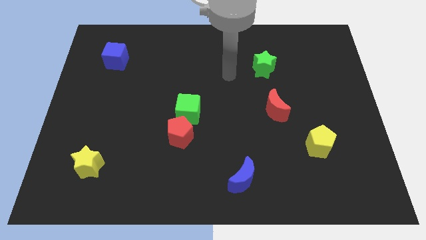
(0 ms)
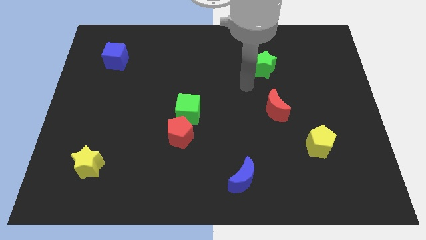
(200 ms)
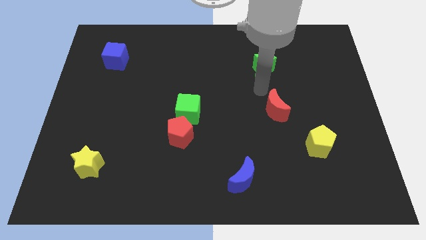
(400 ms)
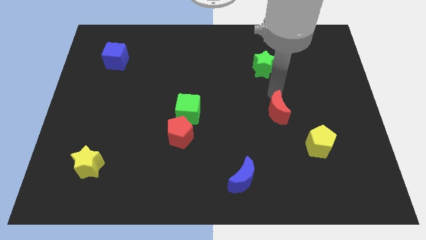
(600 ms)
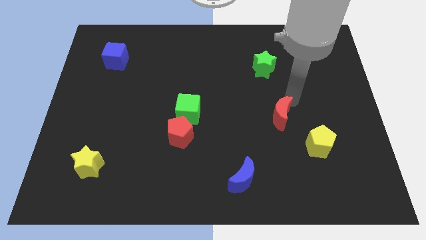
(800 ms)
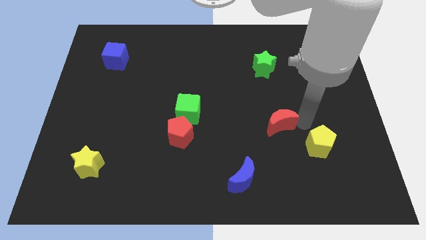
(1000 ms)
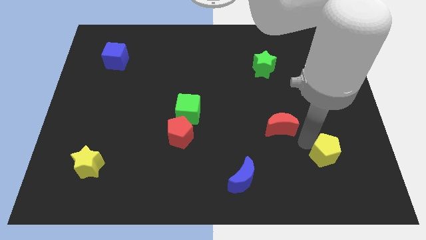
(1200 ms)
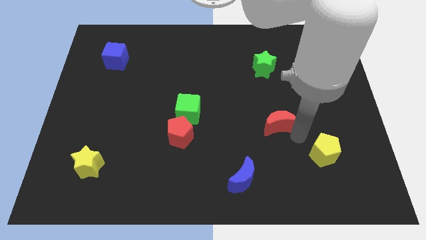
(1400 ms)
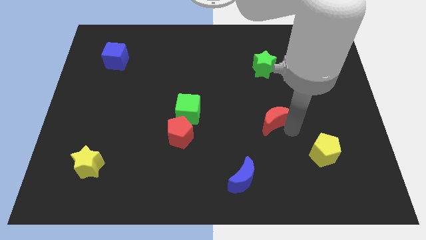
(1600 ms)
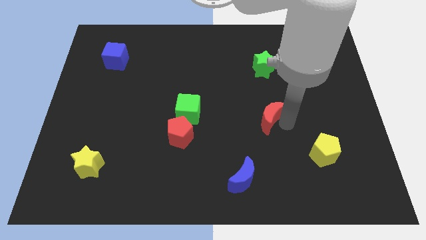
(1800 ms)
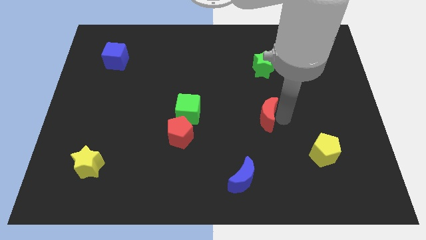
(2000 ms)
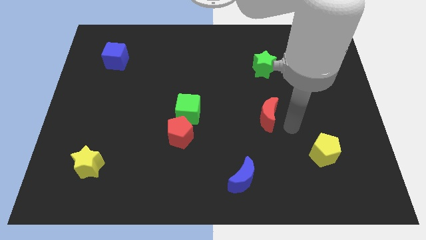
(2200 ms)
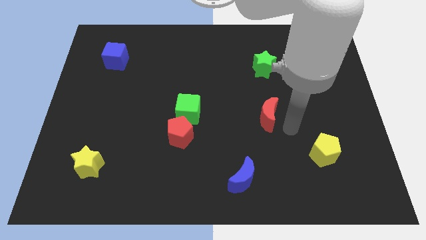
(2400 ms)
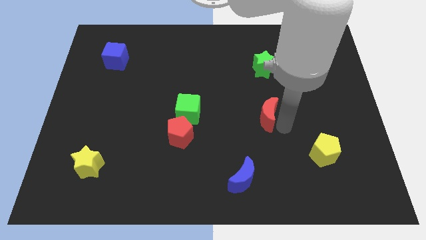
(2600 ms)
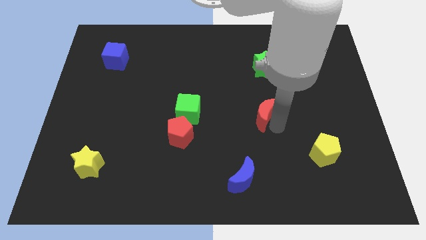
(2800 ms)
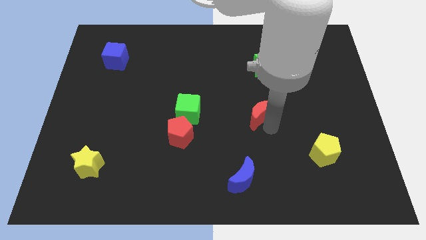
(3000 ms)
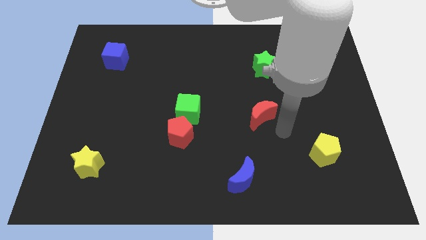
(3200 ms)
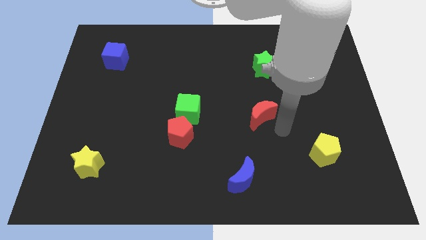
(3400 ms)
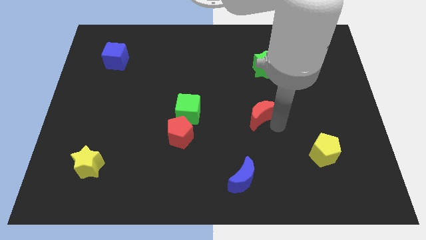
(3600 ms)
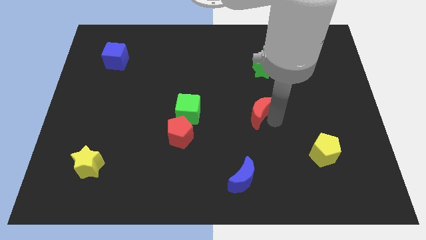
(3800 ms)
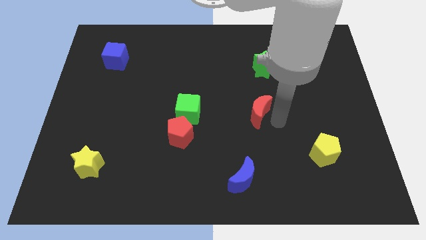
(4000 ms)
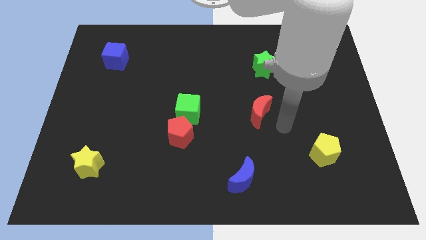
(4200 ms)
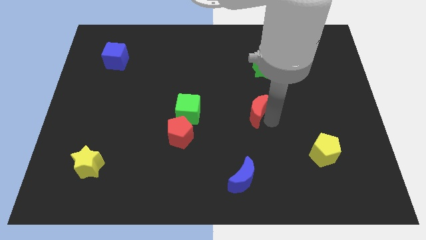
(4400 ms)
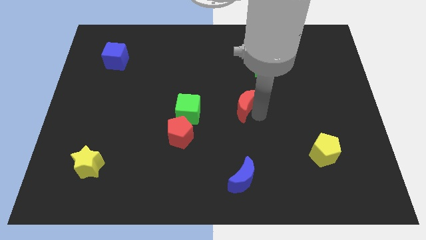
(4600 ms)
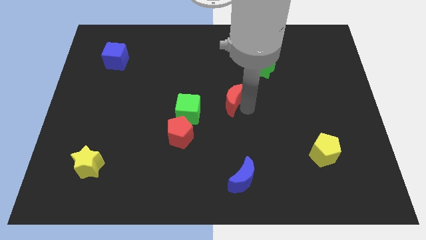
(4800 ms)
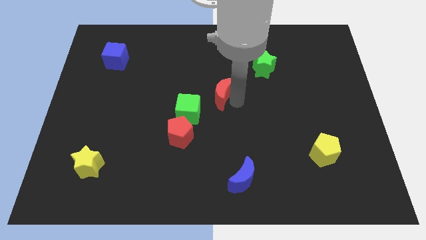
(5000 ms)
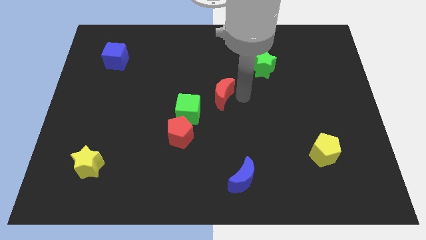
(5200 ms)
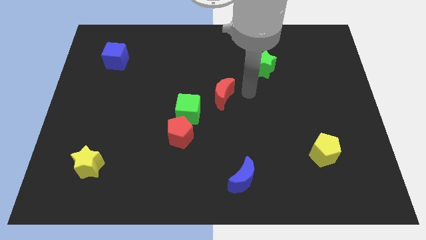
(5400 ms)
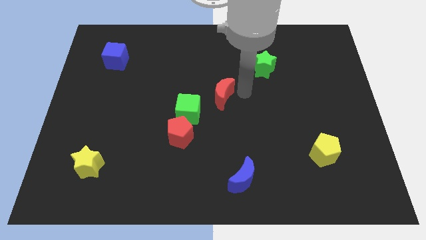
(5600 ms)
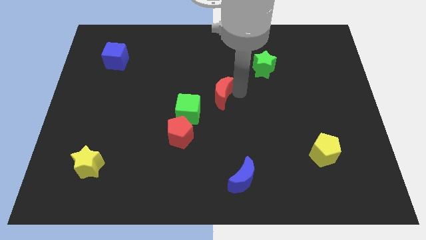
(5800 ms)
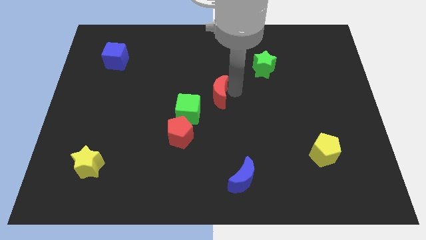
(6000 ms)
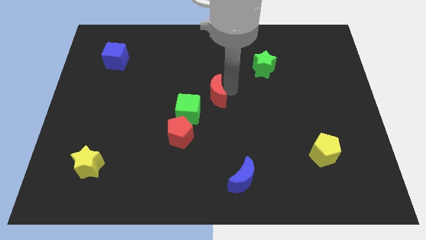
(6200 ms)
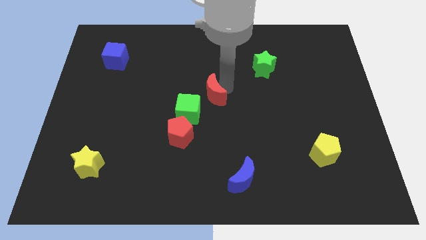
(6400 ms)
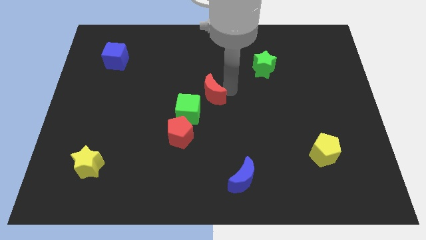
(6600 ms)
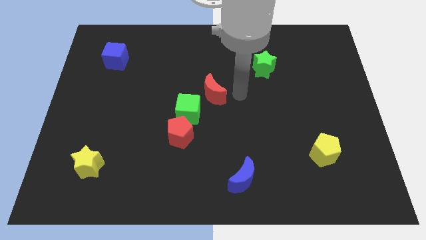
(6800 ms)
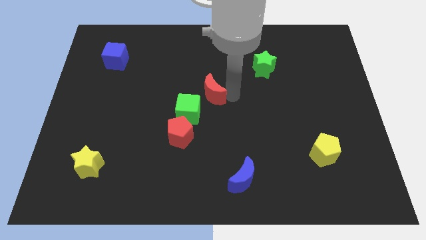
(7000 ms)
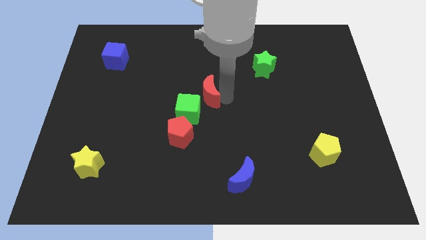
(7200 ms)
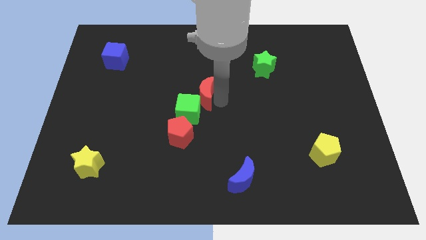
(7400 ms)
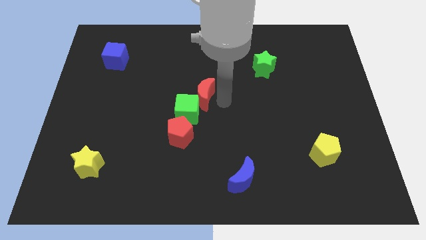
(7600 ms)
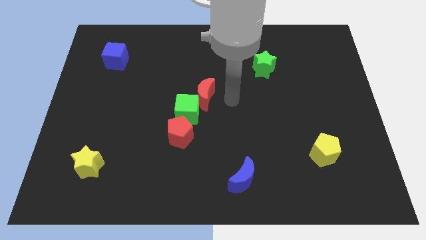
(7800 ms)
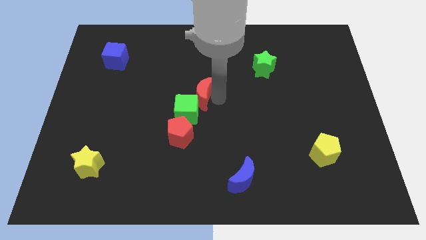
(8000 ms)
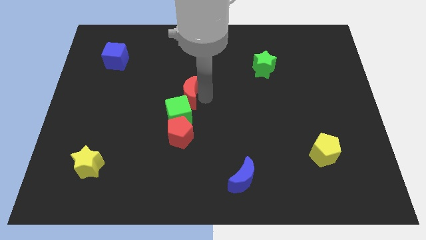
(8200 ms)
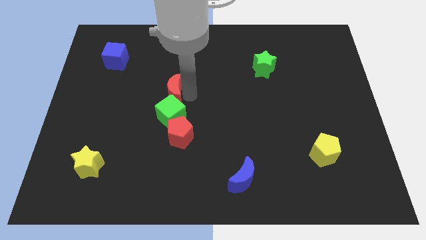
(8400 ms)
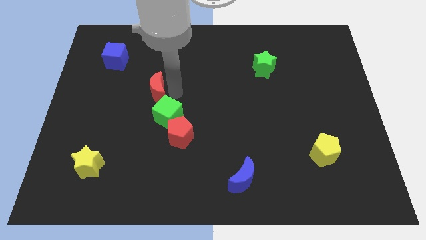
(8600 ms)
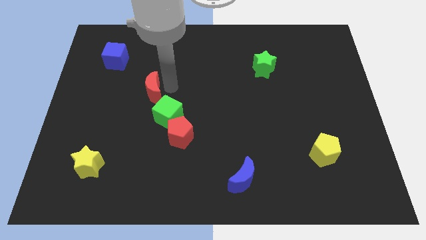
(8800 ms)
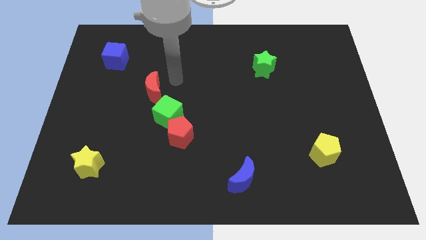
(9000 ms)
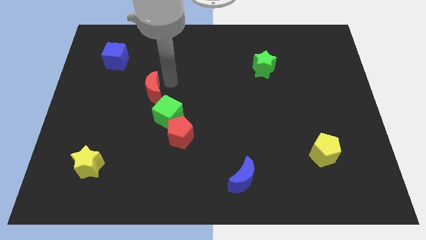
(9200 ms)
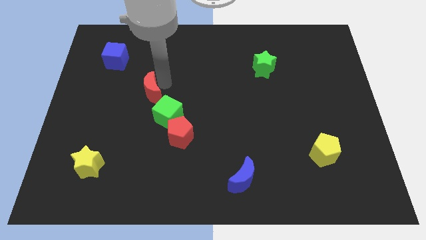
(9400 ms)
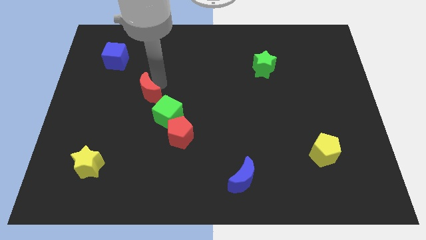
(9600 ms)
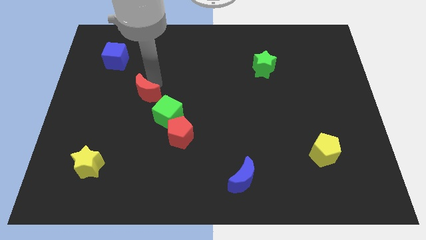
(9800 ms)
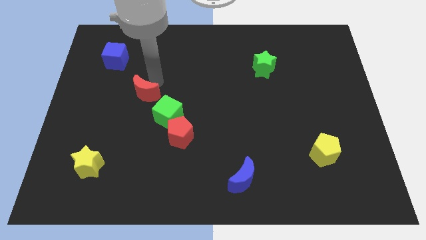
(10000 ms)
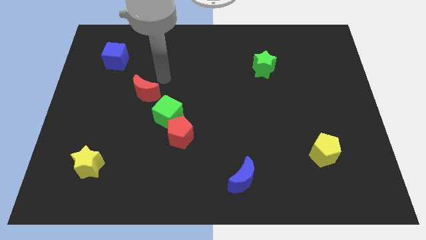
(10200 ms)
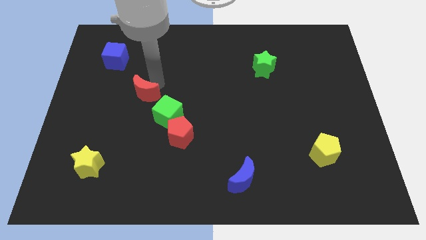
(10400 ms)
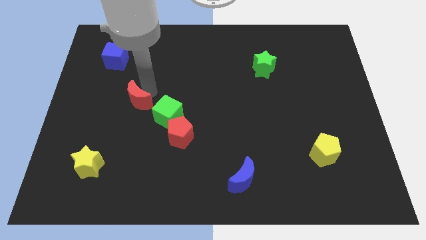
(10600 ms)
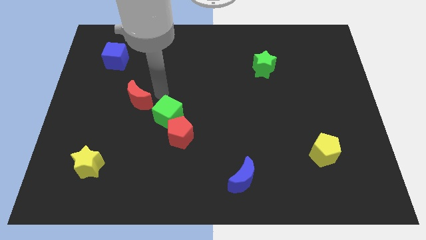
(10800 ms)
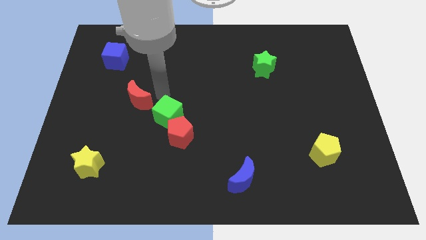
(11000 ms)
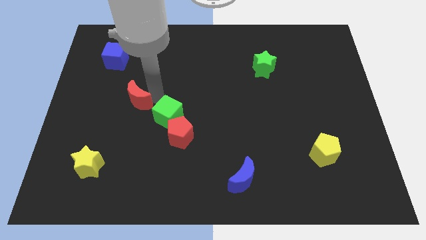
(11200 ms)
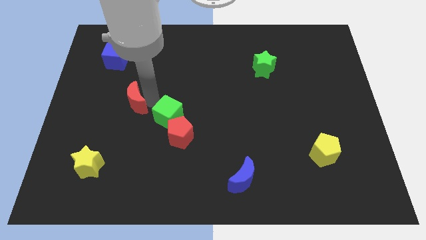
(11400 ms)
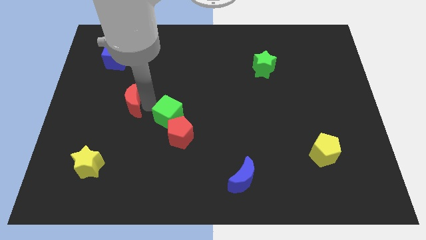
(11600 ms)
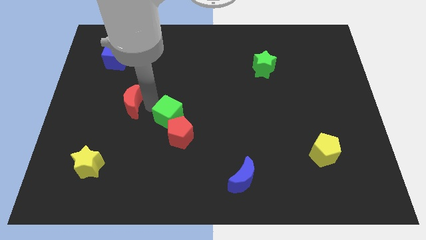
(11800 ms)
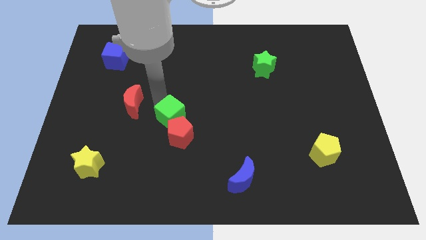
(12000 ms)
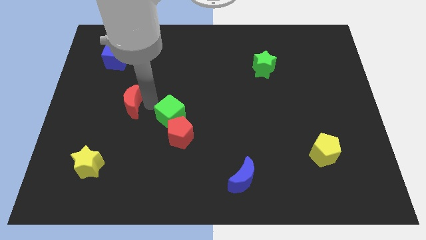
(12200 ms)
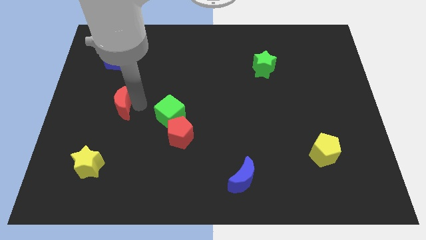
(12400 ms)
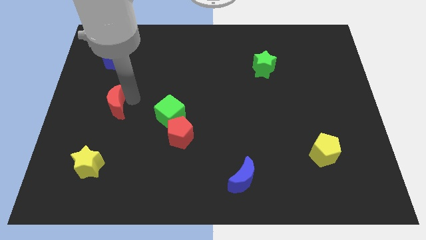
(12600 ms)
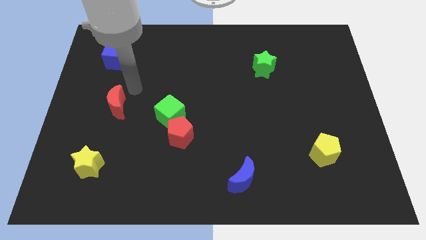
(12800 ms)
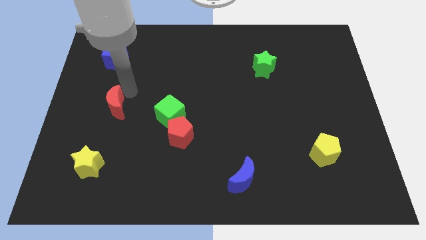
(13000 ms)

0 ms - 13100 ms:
put the red moon above the yellow star

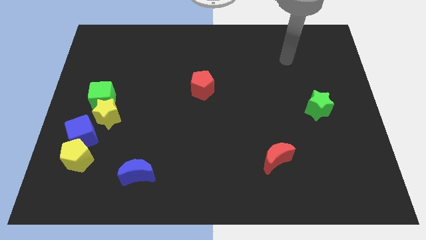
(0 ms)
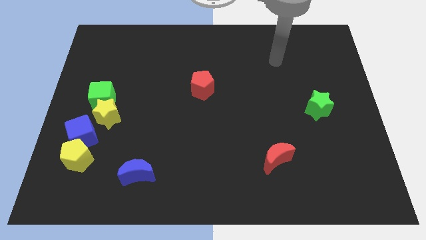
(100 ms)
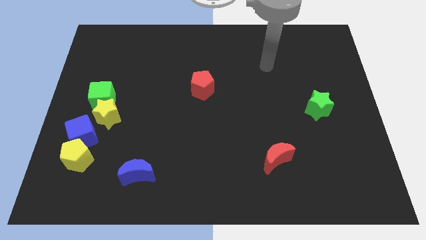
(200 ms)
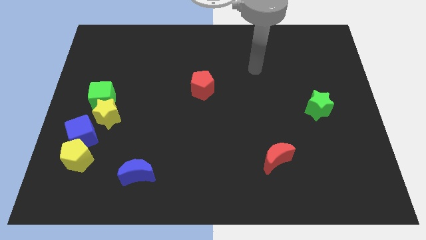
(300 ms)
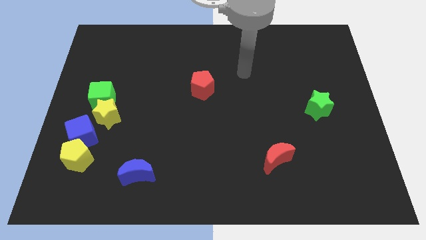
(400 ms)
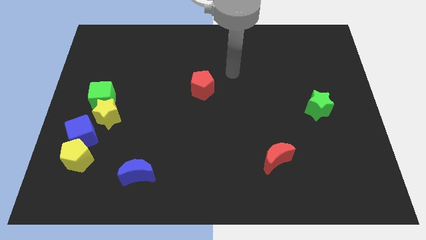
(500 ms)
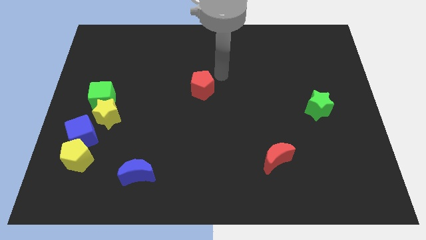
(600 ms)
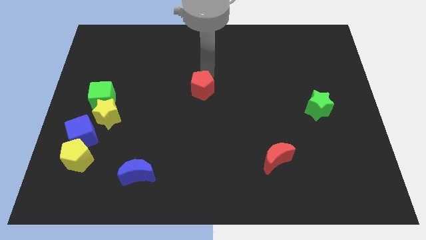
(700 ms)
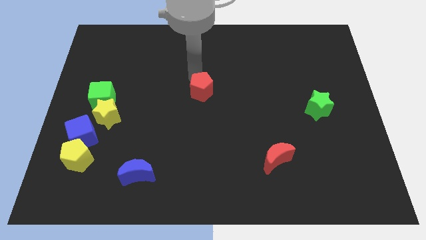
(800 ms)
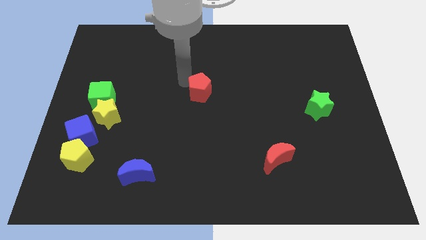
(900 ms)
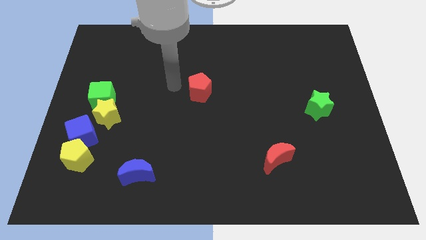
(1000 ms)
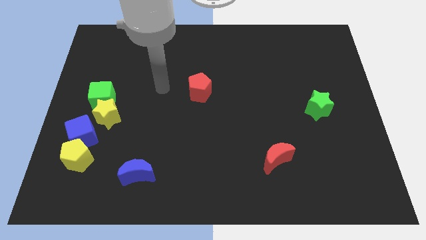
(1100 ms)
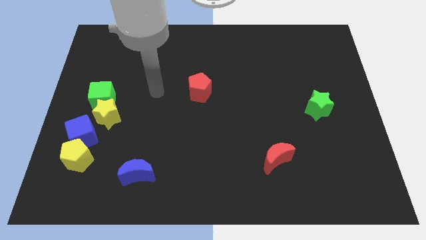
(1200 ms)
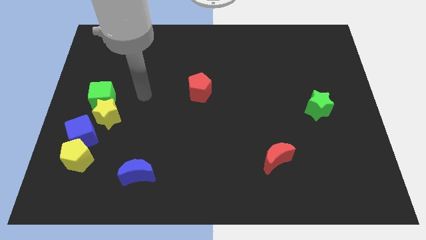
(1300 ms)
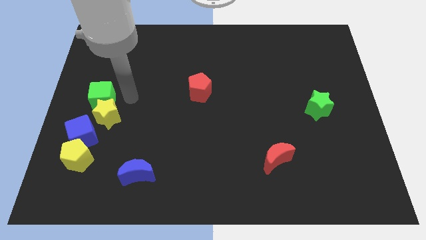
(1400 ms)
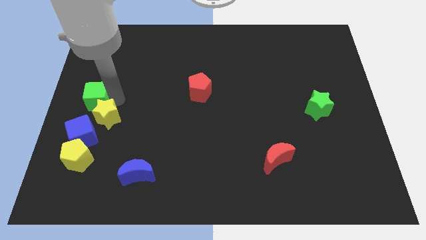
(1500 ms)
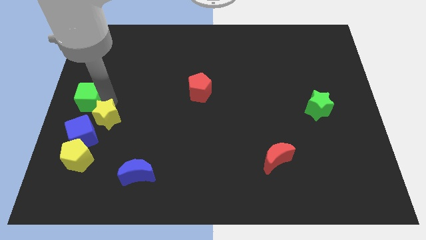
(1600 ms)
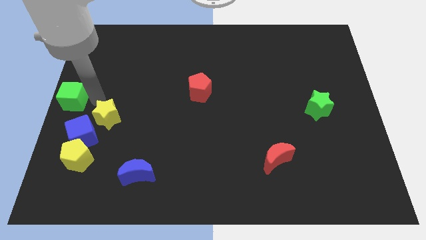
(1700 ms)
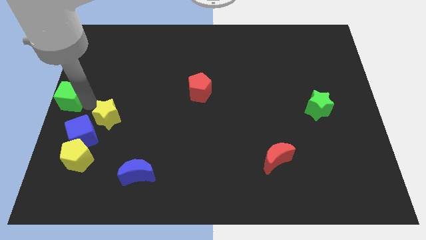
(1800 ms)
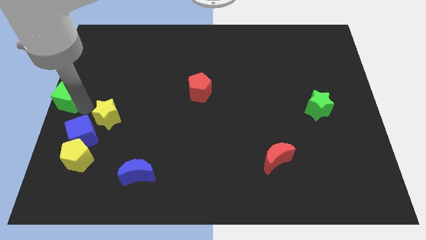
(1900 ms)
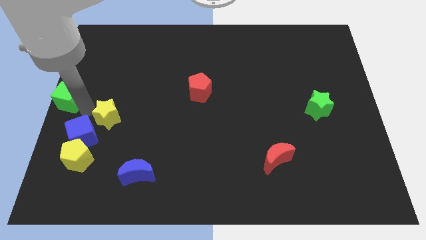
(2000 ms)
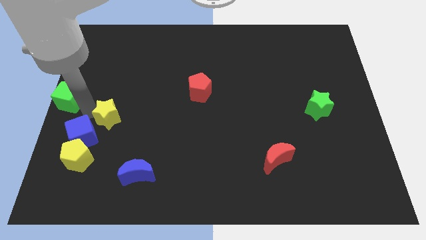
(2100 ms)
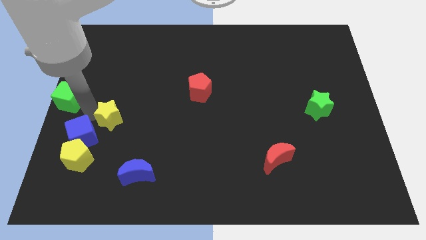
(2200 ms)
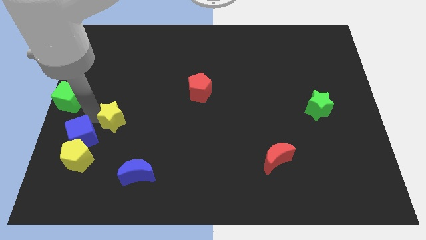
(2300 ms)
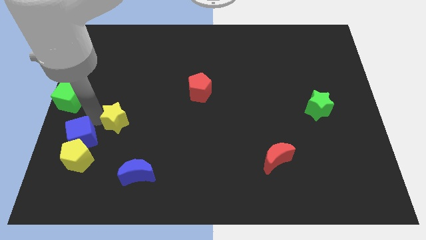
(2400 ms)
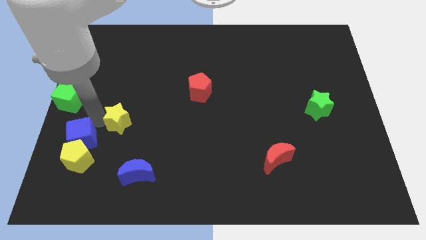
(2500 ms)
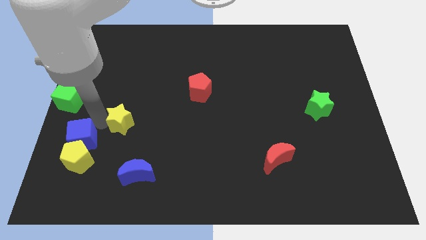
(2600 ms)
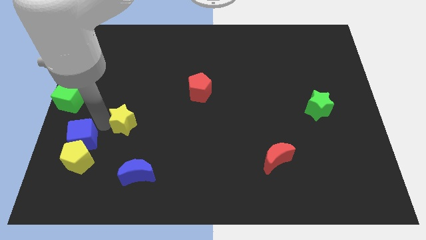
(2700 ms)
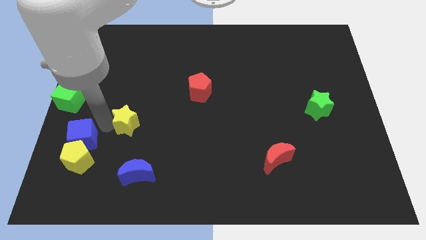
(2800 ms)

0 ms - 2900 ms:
move the yellow star to the top side of the blue moon
